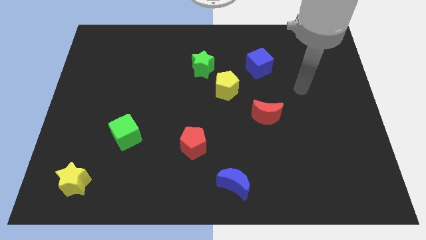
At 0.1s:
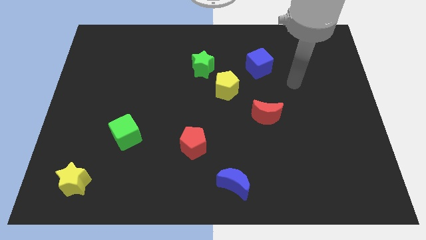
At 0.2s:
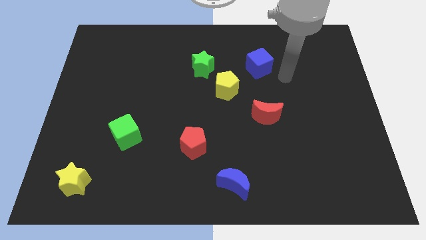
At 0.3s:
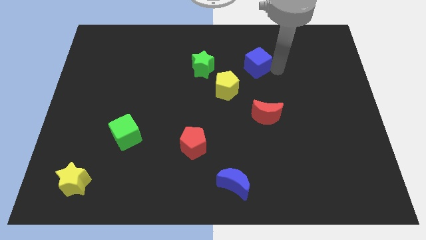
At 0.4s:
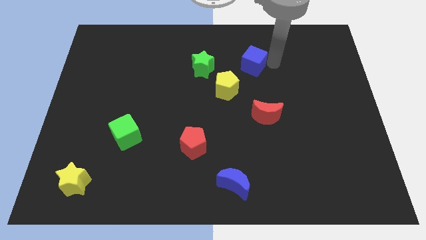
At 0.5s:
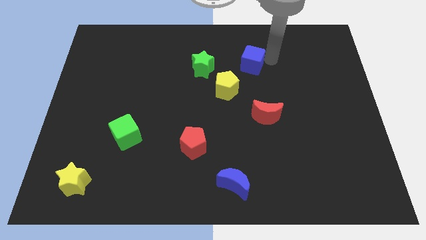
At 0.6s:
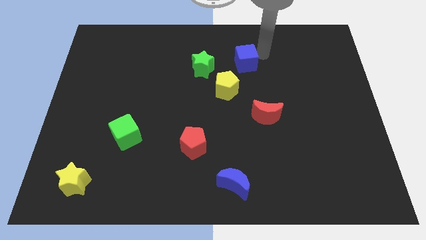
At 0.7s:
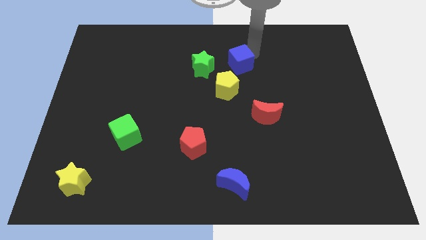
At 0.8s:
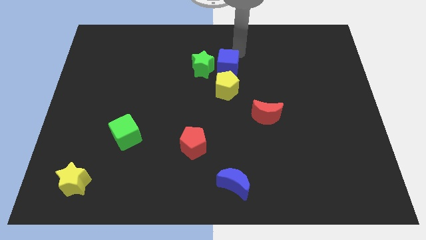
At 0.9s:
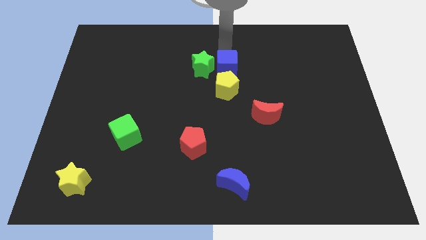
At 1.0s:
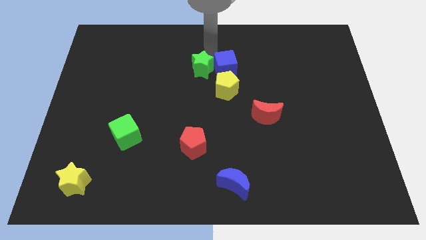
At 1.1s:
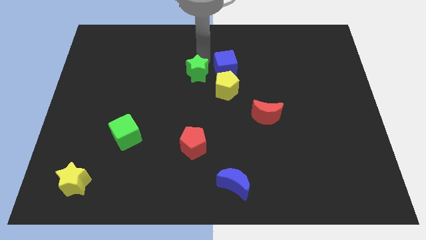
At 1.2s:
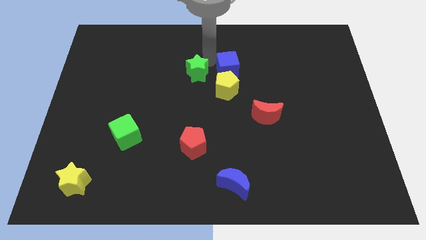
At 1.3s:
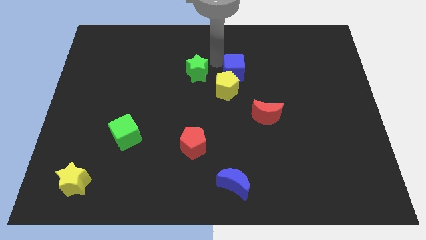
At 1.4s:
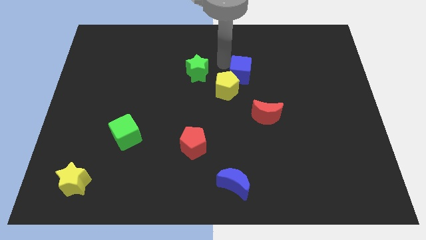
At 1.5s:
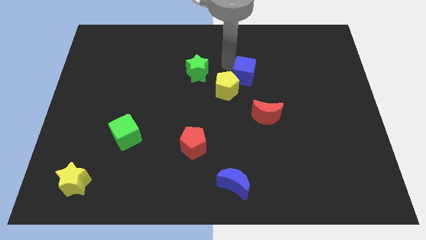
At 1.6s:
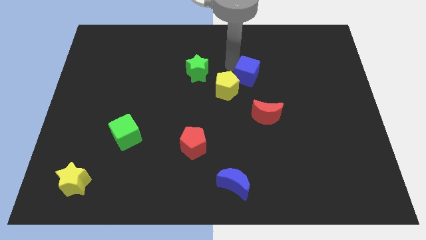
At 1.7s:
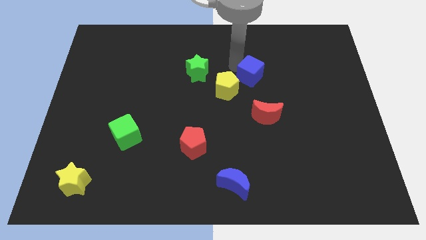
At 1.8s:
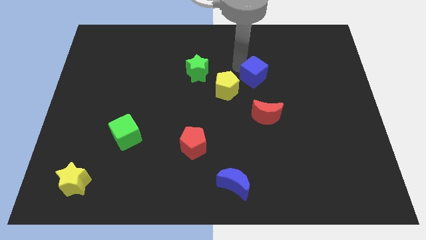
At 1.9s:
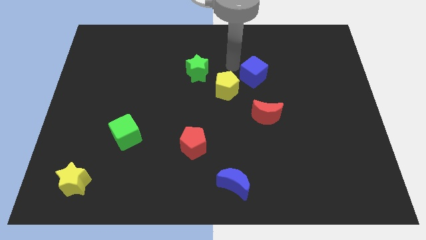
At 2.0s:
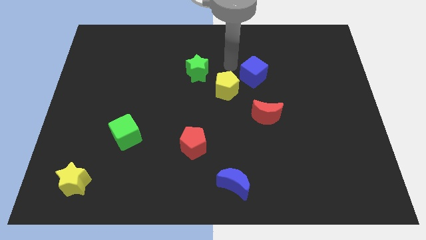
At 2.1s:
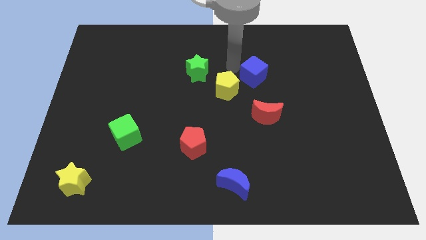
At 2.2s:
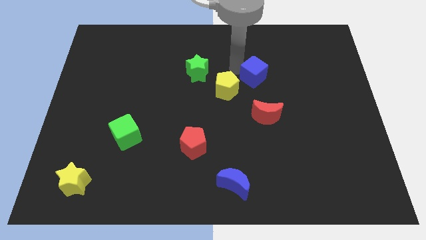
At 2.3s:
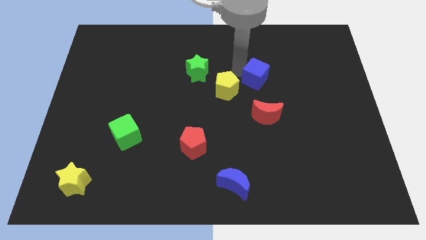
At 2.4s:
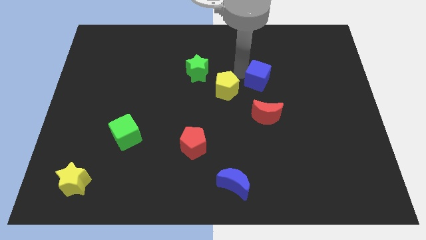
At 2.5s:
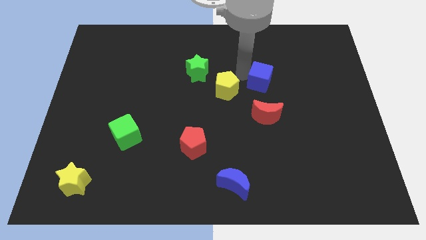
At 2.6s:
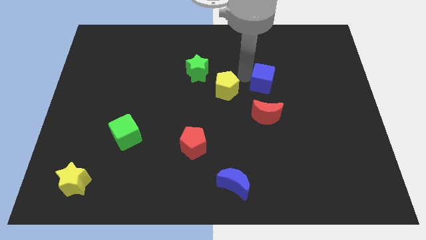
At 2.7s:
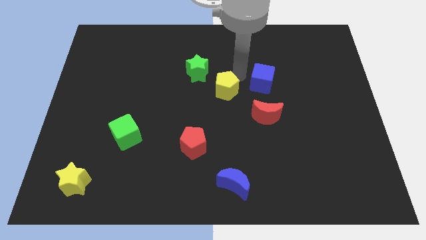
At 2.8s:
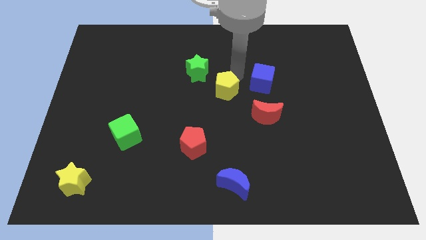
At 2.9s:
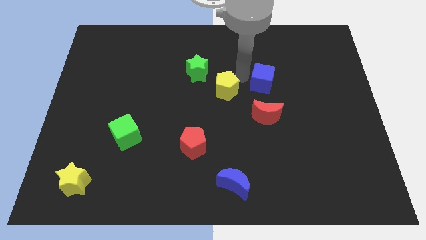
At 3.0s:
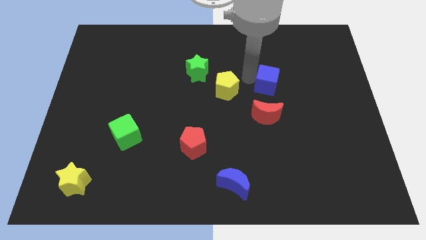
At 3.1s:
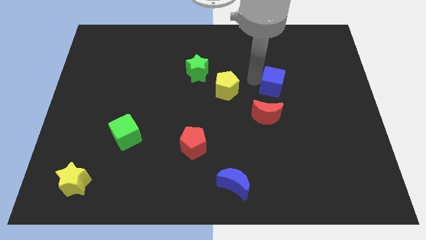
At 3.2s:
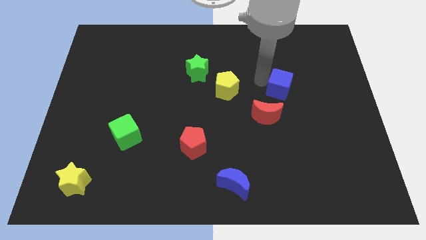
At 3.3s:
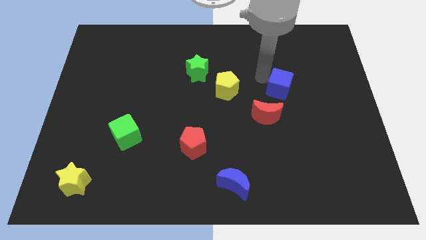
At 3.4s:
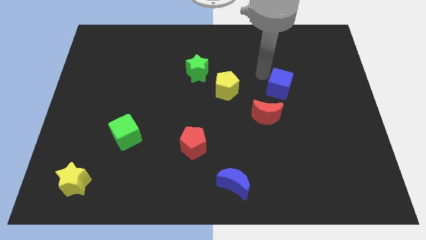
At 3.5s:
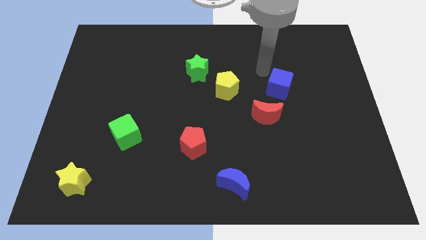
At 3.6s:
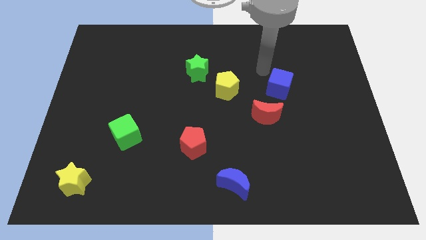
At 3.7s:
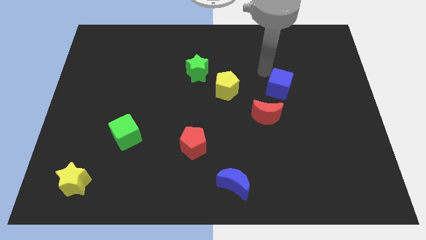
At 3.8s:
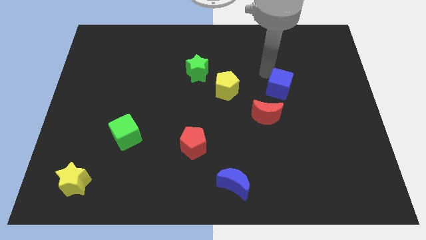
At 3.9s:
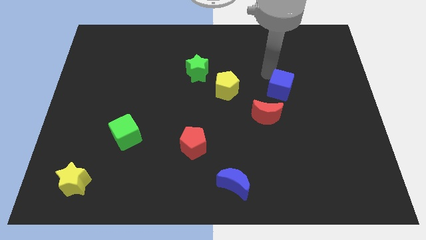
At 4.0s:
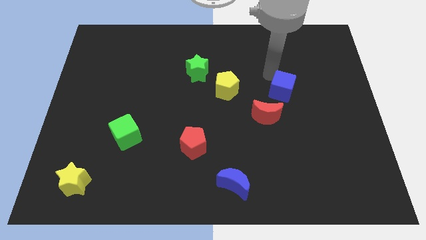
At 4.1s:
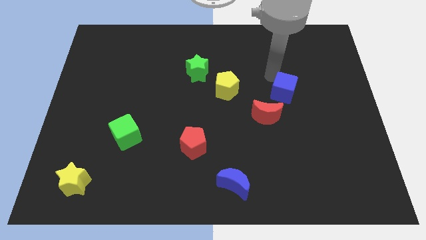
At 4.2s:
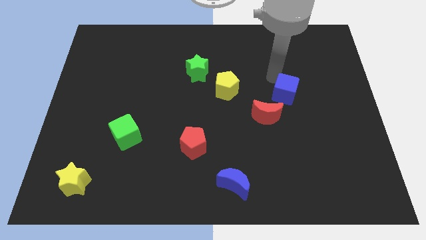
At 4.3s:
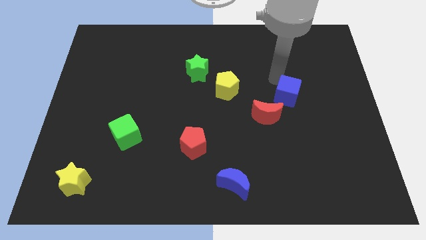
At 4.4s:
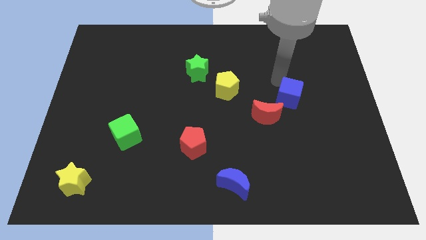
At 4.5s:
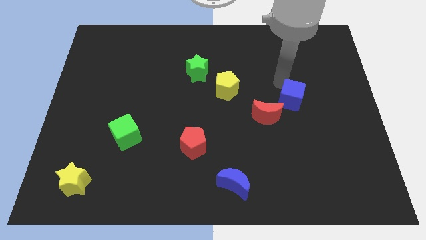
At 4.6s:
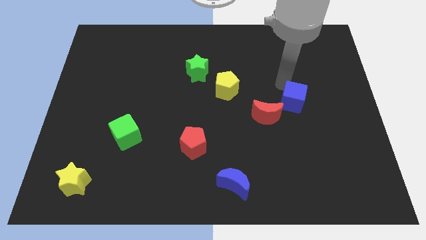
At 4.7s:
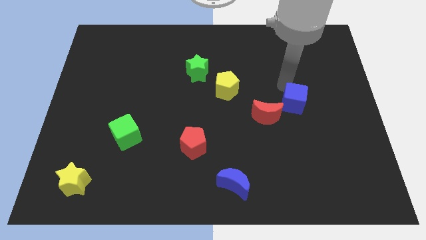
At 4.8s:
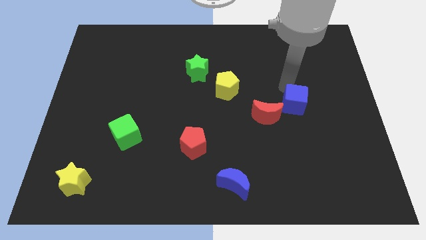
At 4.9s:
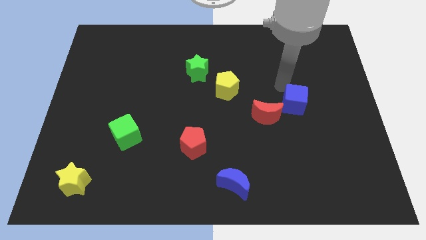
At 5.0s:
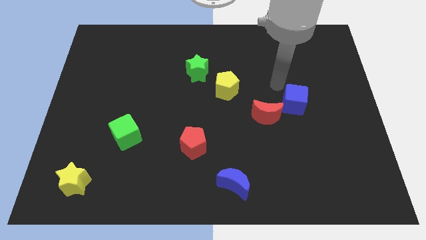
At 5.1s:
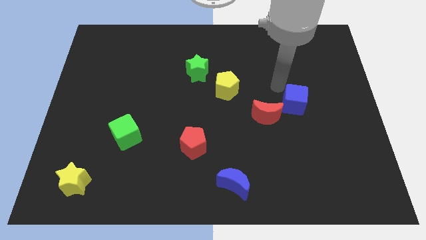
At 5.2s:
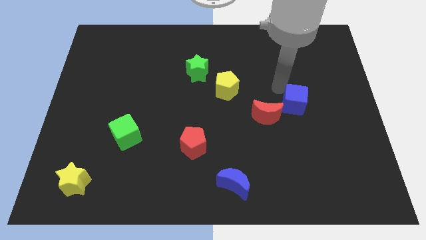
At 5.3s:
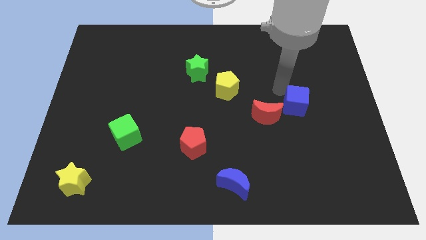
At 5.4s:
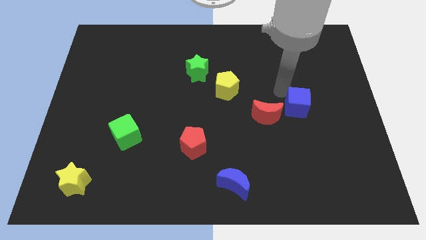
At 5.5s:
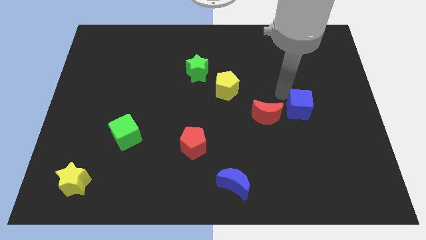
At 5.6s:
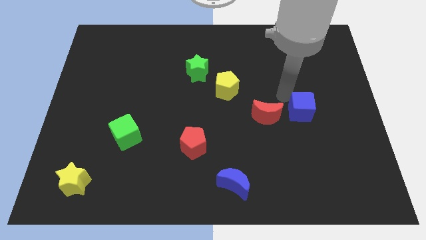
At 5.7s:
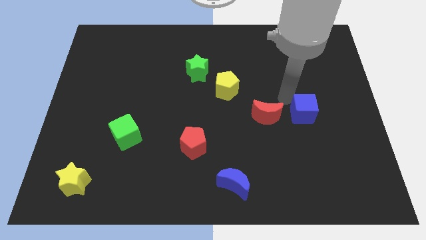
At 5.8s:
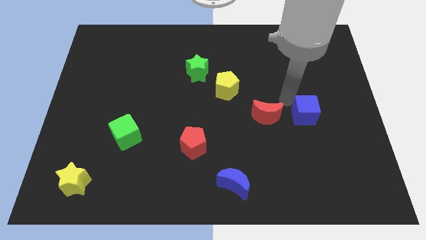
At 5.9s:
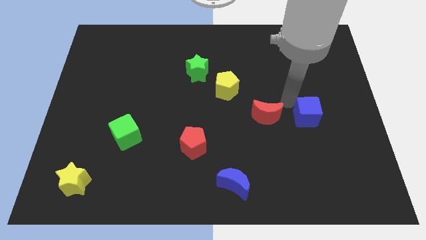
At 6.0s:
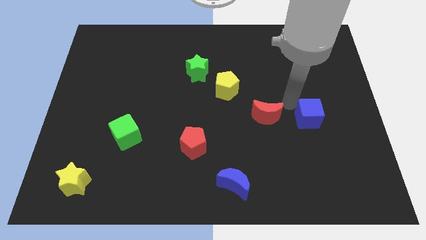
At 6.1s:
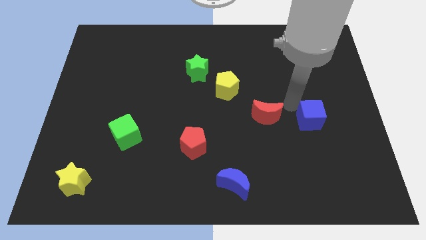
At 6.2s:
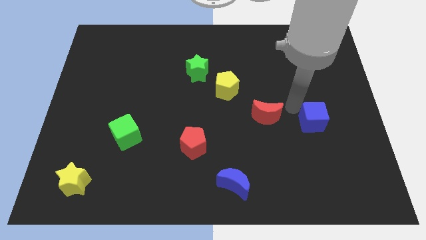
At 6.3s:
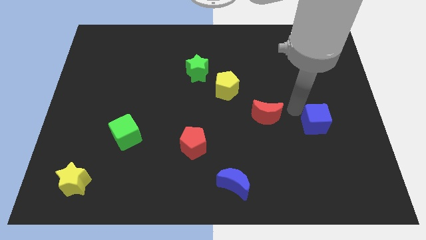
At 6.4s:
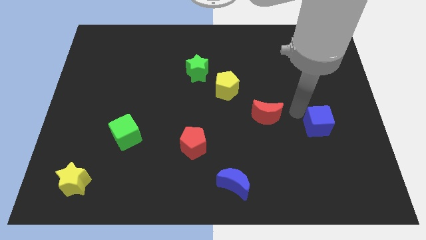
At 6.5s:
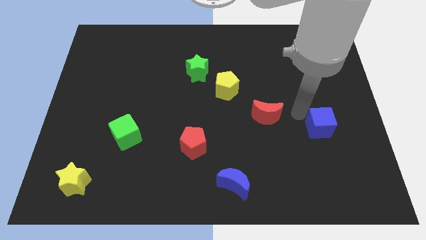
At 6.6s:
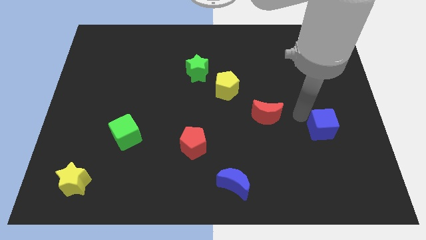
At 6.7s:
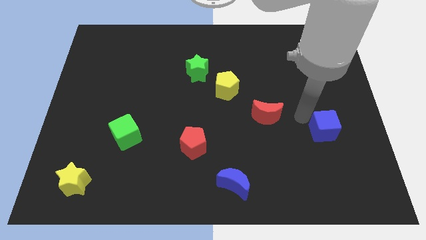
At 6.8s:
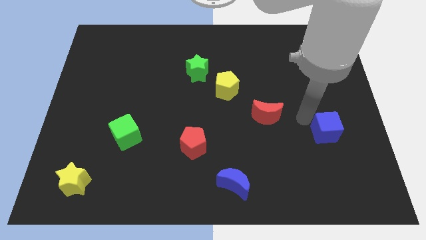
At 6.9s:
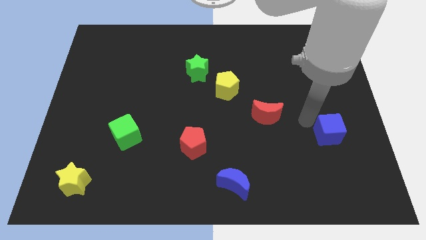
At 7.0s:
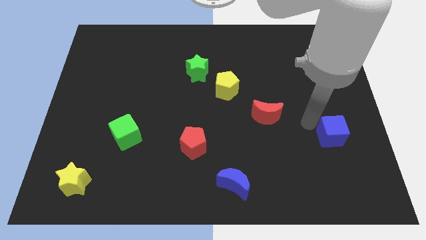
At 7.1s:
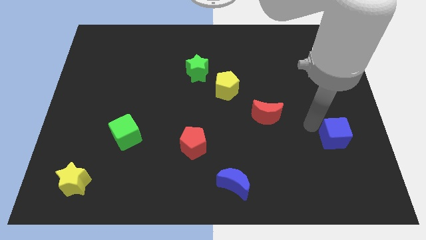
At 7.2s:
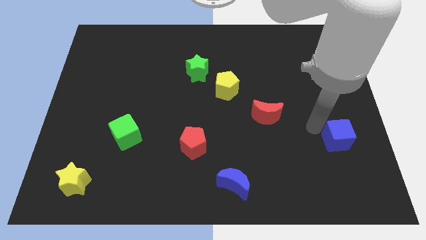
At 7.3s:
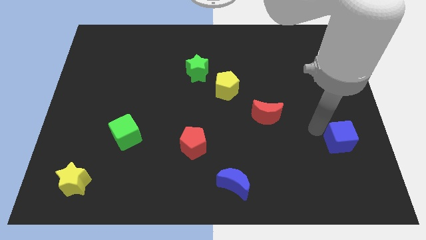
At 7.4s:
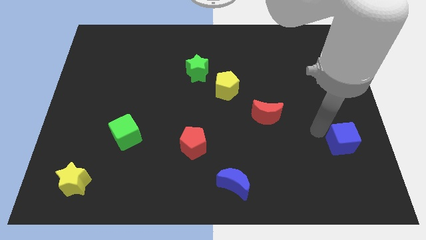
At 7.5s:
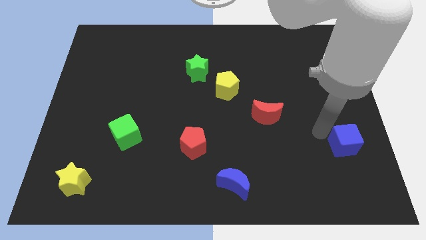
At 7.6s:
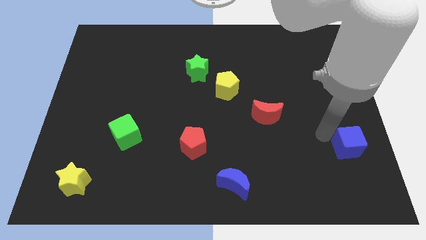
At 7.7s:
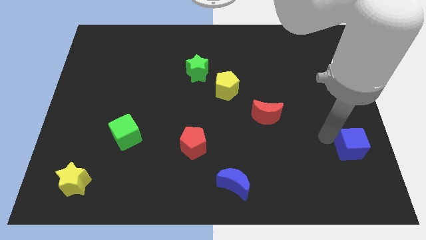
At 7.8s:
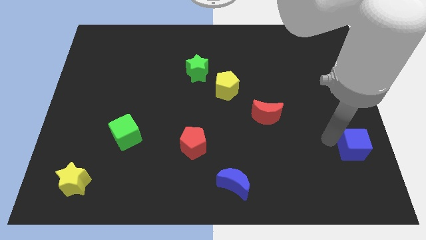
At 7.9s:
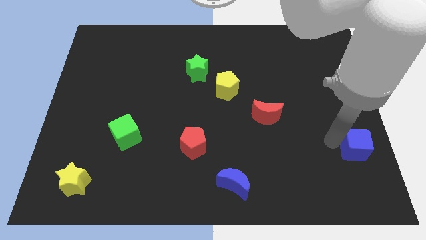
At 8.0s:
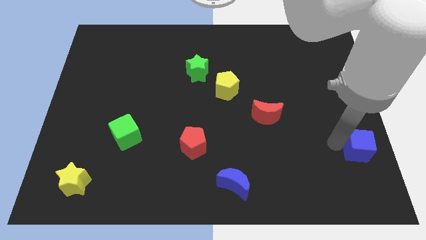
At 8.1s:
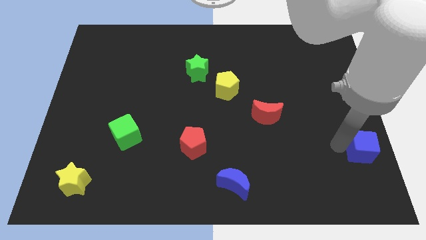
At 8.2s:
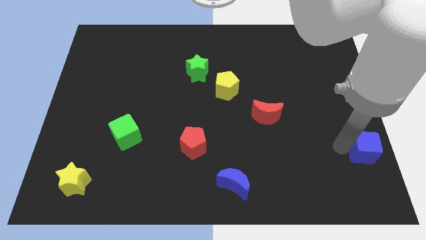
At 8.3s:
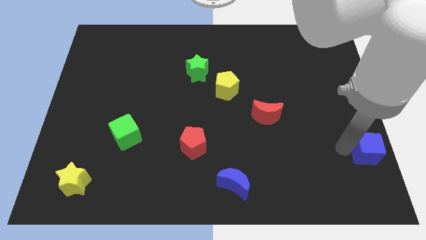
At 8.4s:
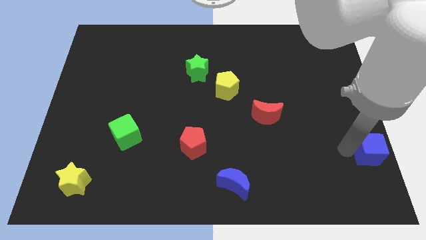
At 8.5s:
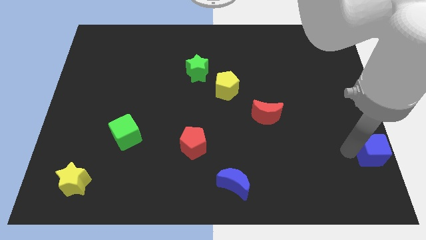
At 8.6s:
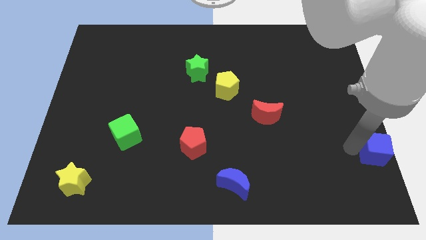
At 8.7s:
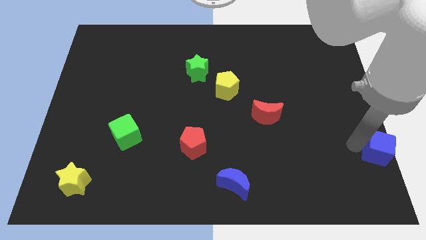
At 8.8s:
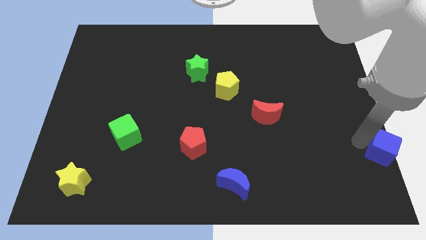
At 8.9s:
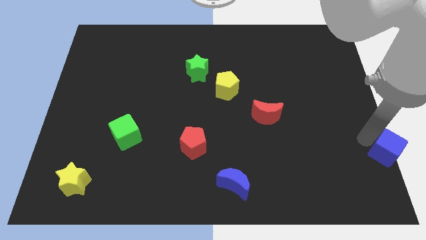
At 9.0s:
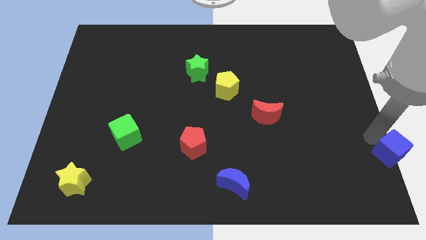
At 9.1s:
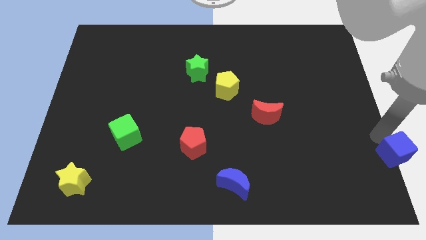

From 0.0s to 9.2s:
slide the blue cube to the bottom right
